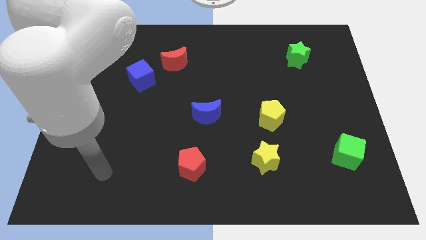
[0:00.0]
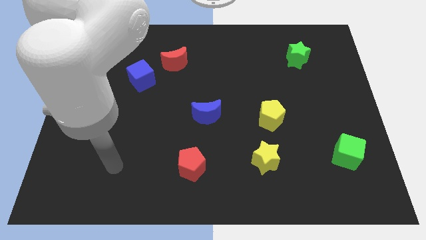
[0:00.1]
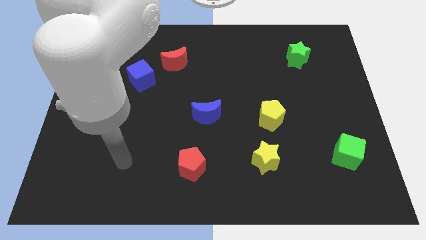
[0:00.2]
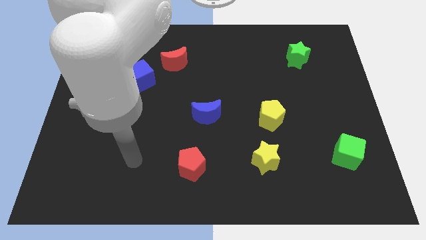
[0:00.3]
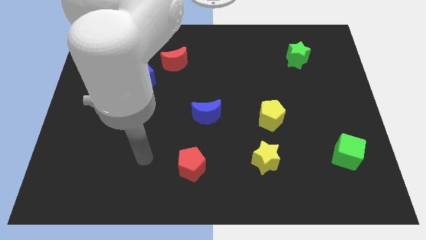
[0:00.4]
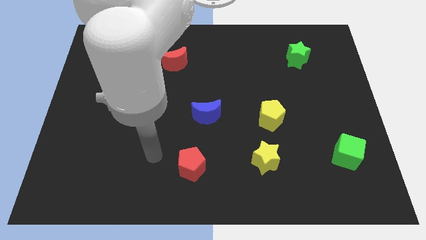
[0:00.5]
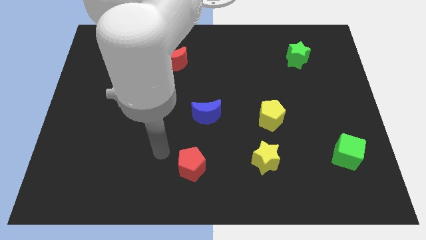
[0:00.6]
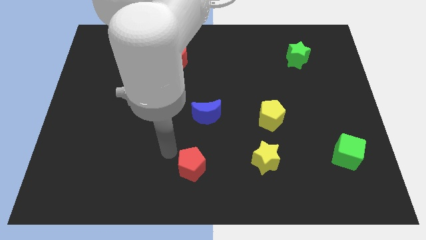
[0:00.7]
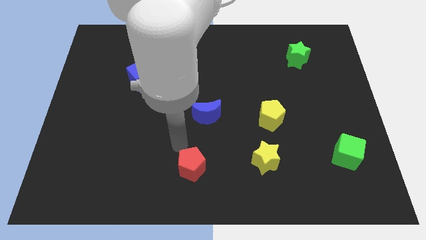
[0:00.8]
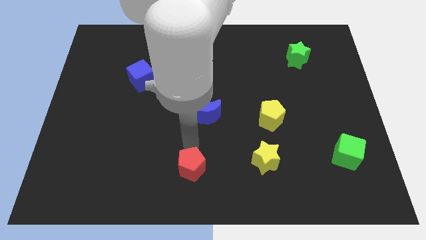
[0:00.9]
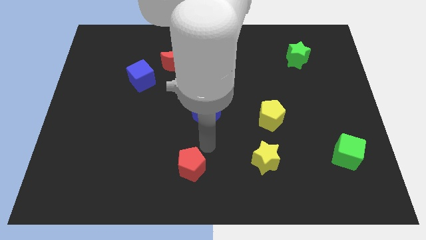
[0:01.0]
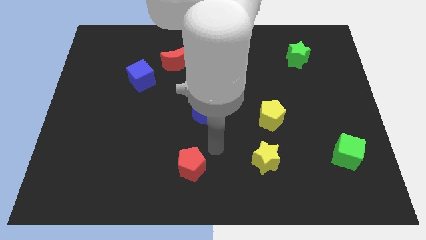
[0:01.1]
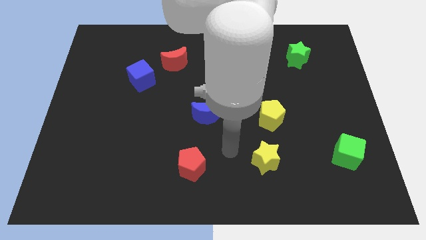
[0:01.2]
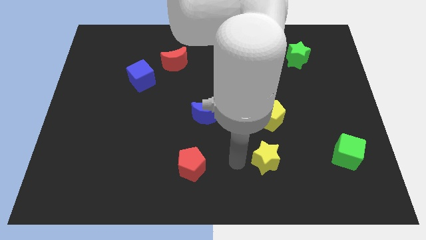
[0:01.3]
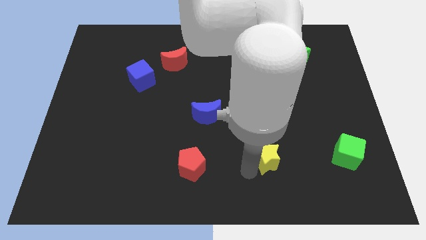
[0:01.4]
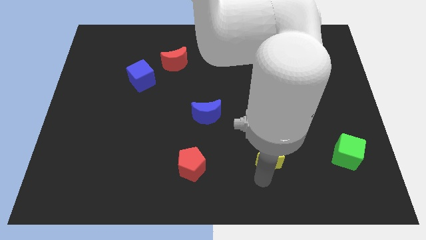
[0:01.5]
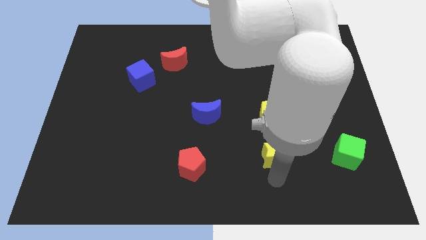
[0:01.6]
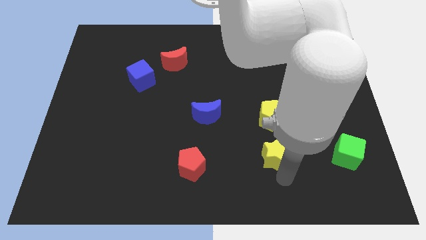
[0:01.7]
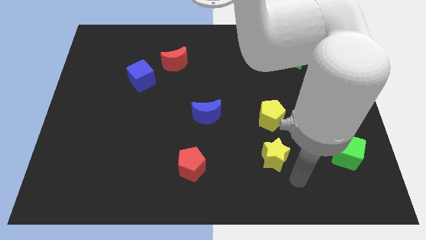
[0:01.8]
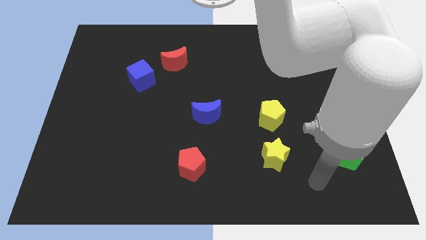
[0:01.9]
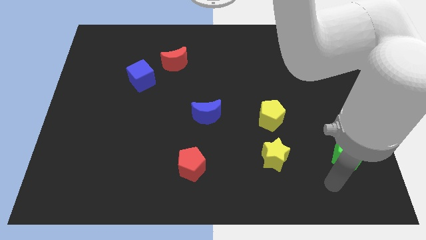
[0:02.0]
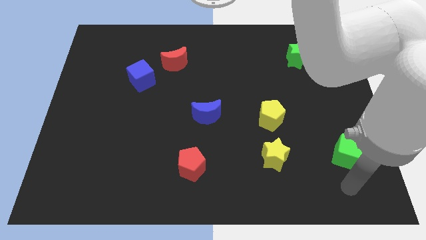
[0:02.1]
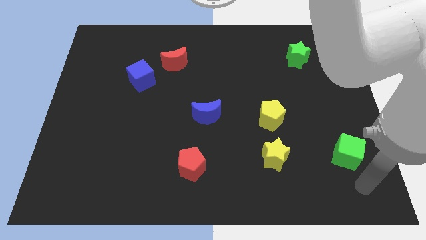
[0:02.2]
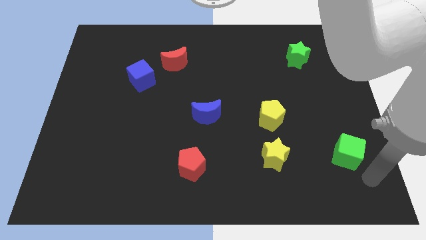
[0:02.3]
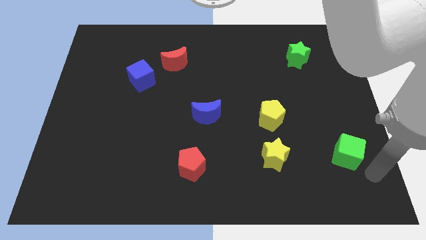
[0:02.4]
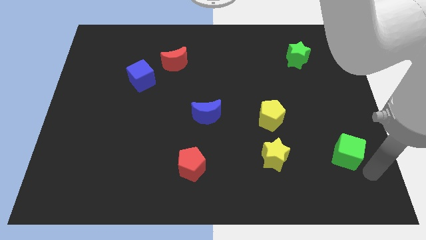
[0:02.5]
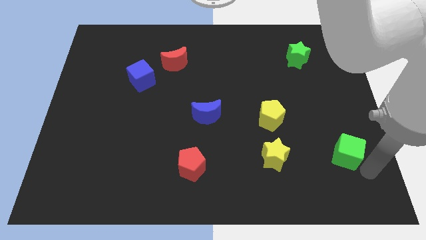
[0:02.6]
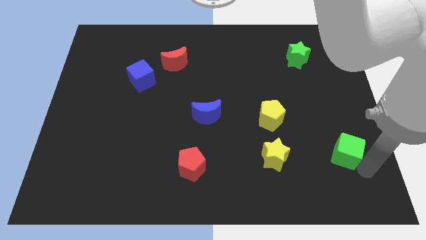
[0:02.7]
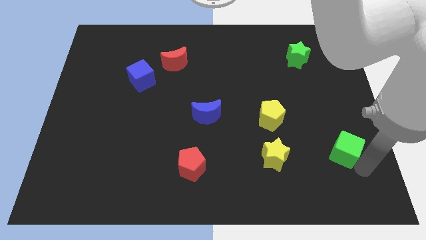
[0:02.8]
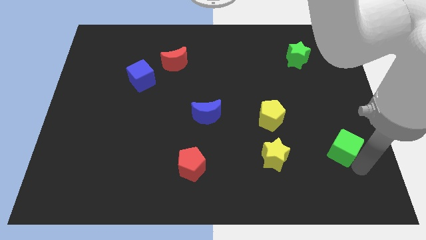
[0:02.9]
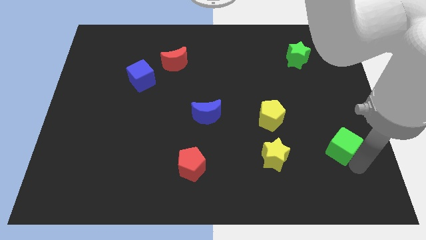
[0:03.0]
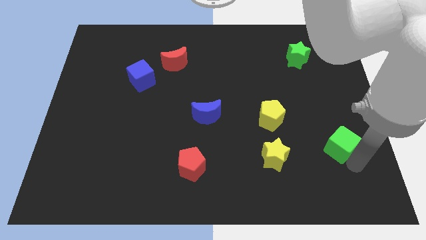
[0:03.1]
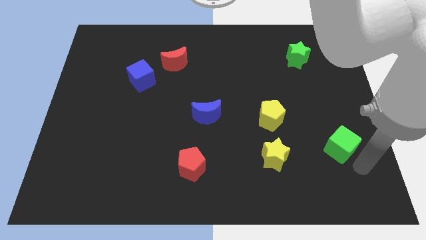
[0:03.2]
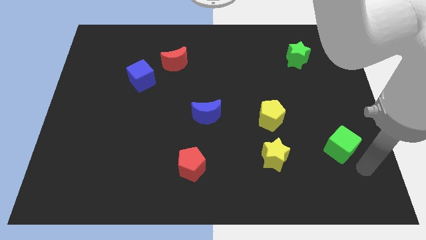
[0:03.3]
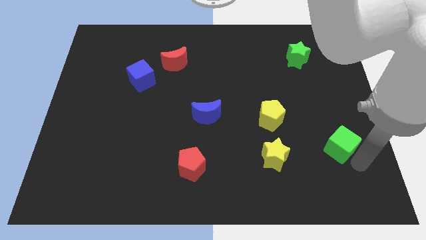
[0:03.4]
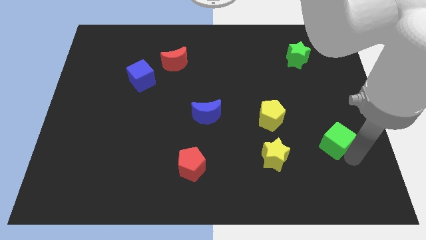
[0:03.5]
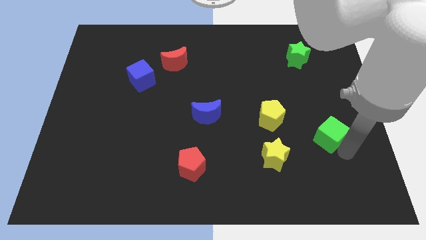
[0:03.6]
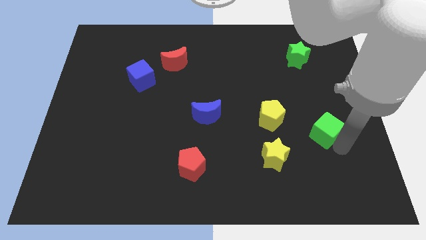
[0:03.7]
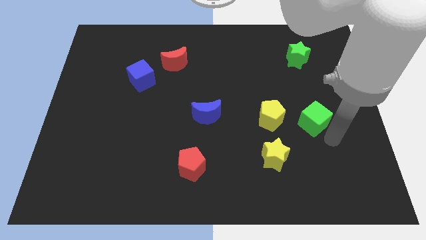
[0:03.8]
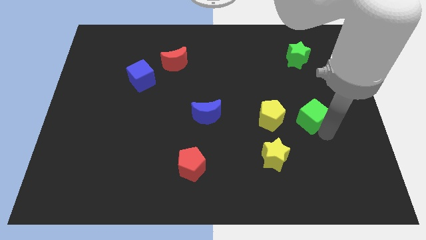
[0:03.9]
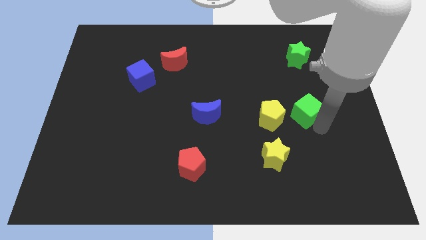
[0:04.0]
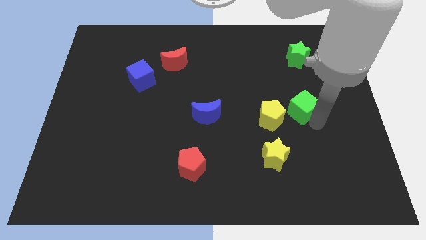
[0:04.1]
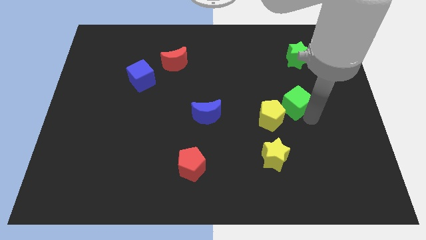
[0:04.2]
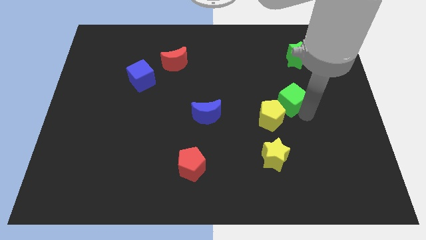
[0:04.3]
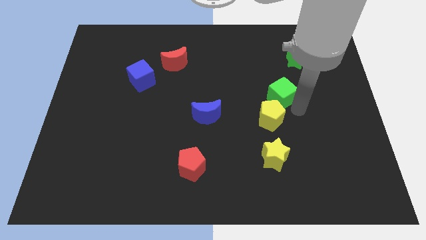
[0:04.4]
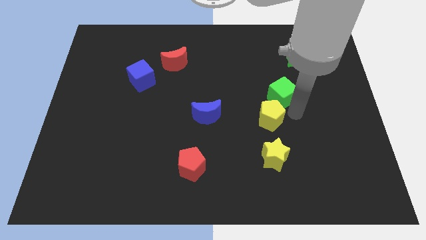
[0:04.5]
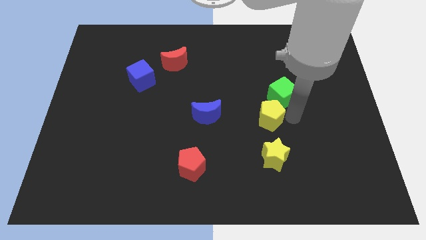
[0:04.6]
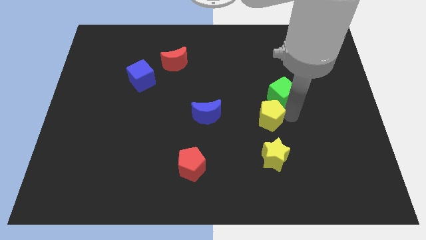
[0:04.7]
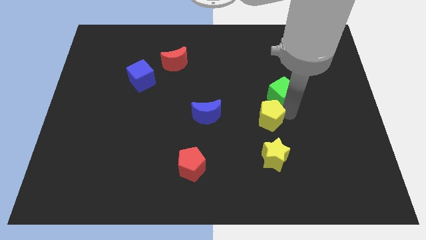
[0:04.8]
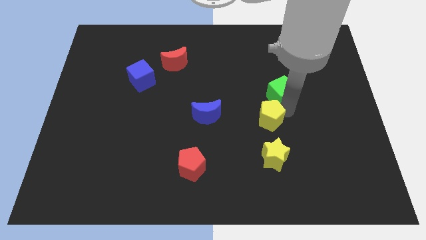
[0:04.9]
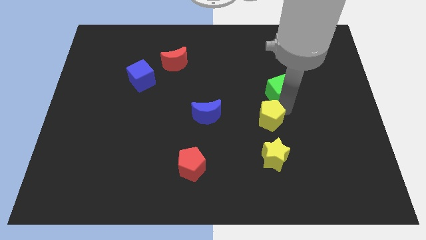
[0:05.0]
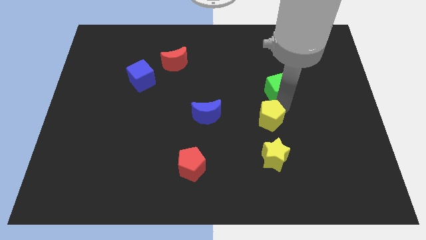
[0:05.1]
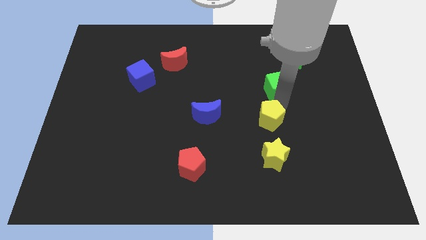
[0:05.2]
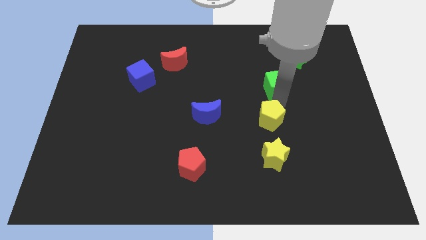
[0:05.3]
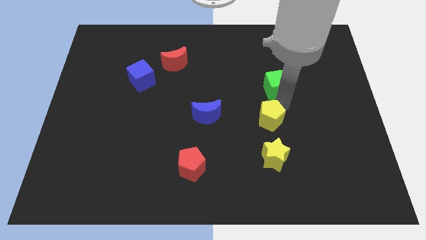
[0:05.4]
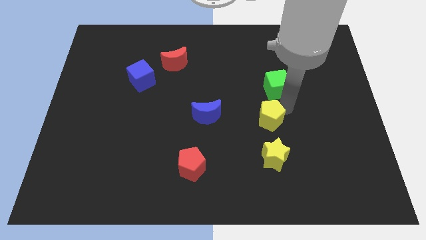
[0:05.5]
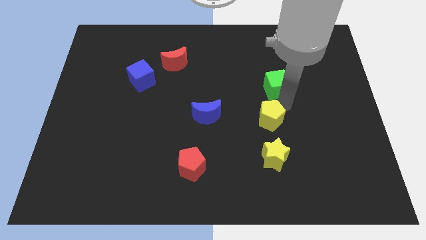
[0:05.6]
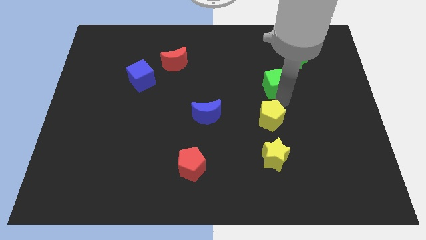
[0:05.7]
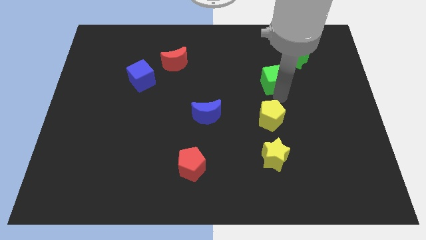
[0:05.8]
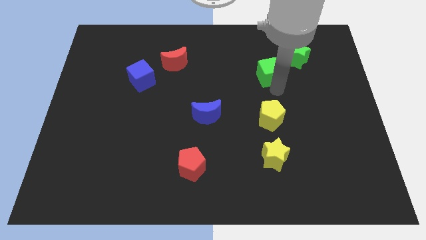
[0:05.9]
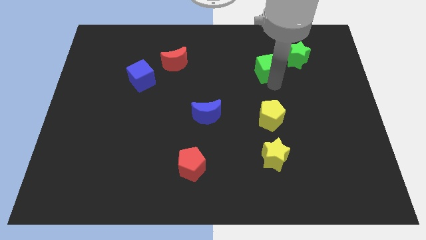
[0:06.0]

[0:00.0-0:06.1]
move the green cube left of the green star

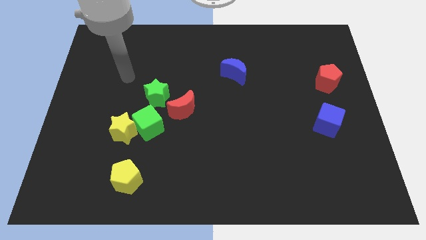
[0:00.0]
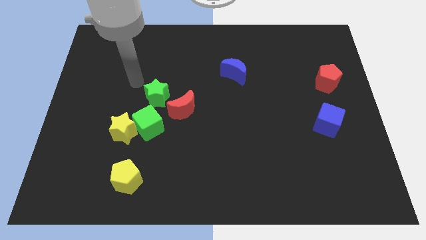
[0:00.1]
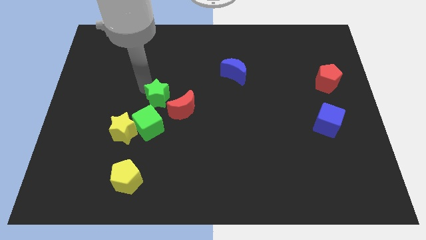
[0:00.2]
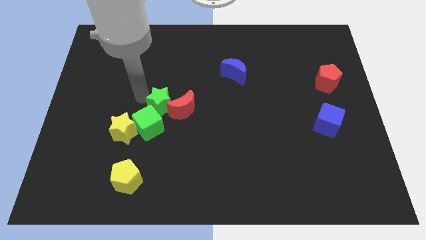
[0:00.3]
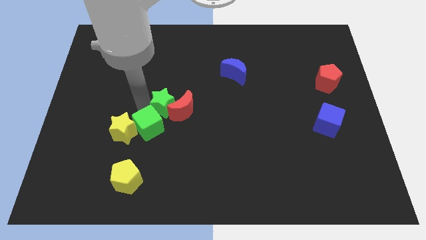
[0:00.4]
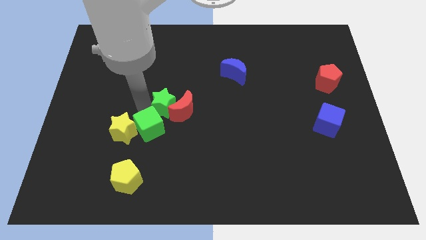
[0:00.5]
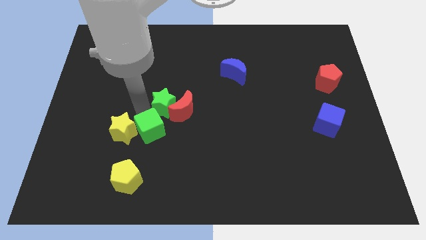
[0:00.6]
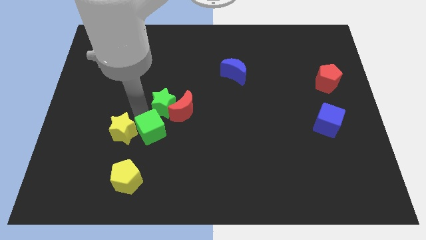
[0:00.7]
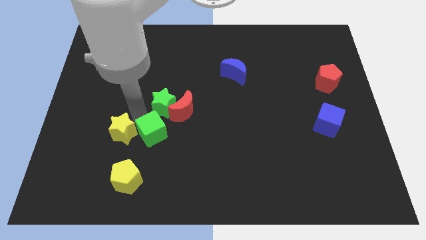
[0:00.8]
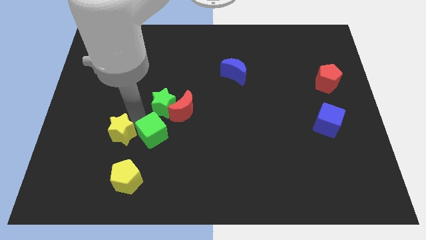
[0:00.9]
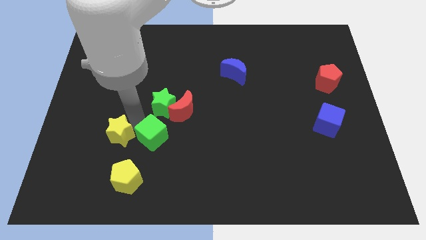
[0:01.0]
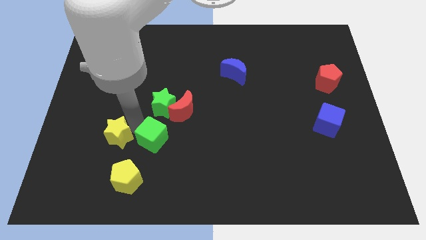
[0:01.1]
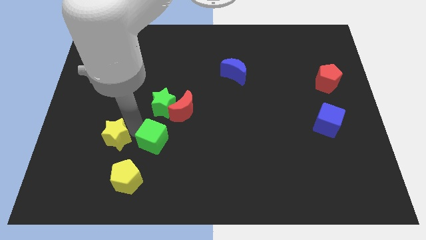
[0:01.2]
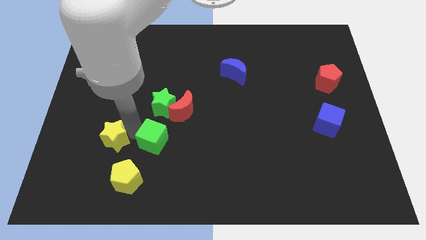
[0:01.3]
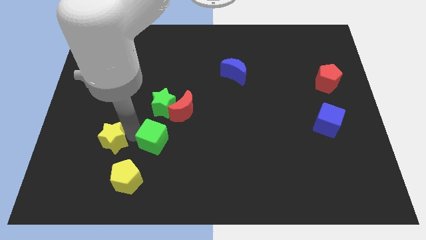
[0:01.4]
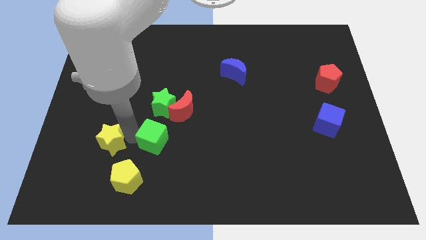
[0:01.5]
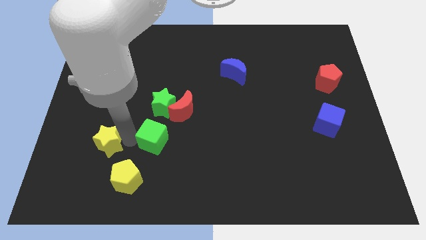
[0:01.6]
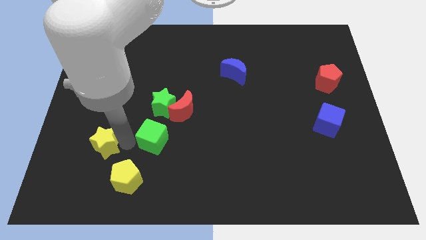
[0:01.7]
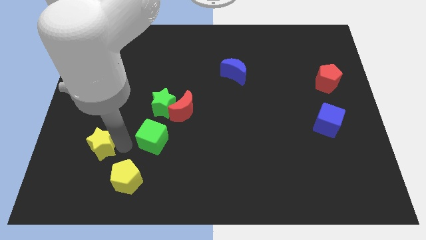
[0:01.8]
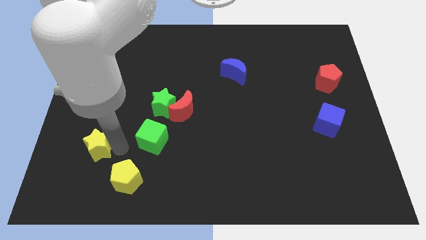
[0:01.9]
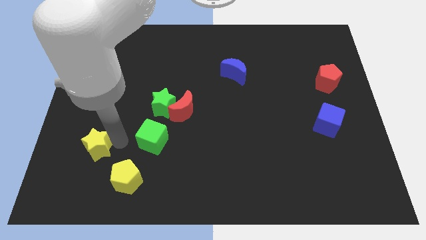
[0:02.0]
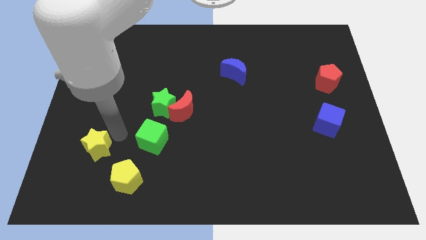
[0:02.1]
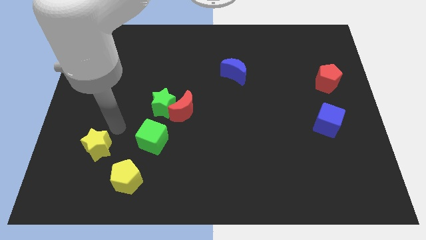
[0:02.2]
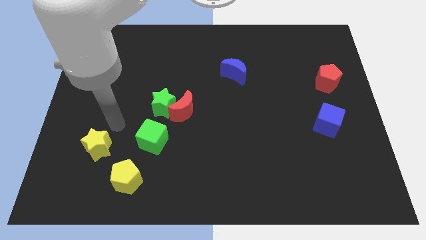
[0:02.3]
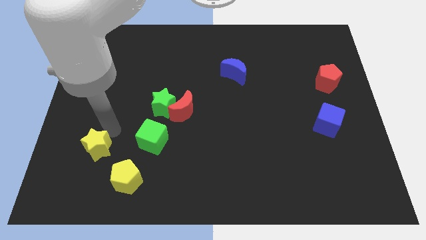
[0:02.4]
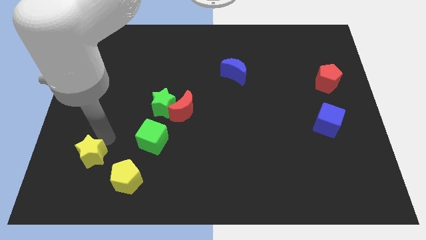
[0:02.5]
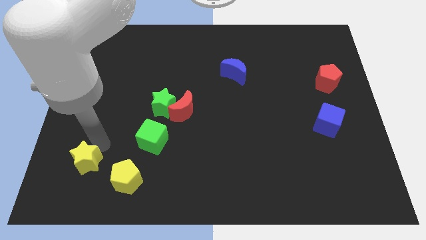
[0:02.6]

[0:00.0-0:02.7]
push the yellow star to the left side of the yellow pentagon
